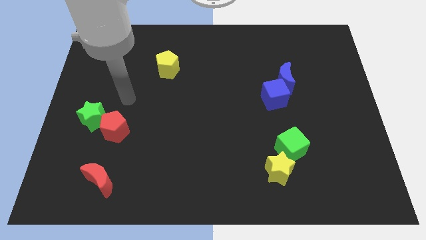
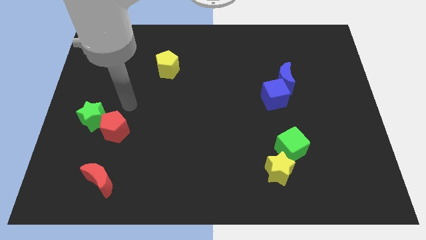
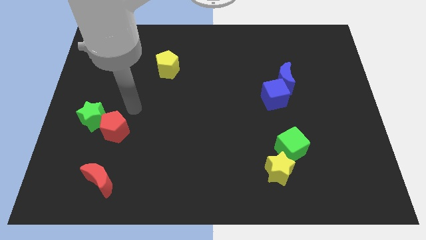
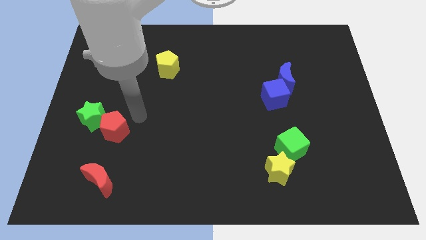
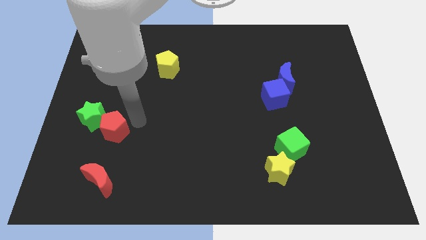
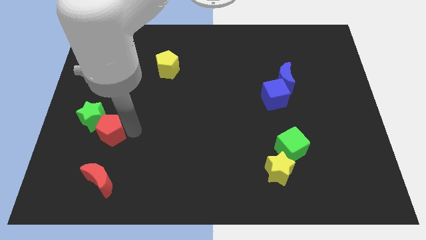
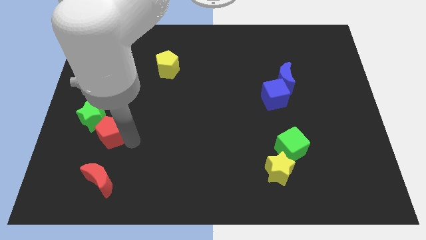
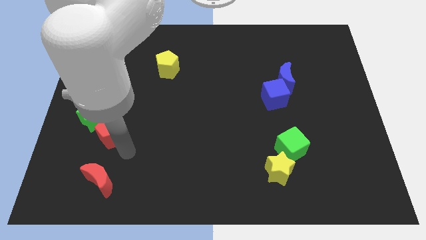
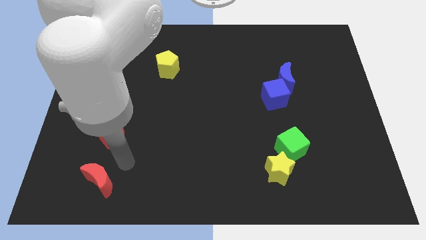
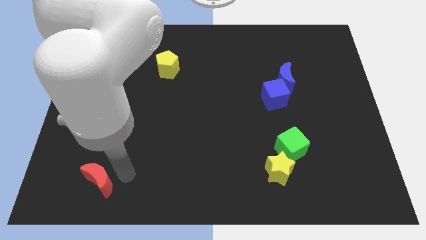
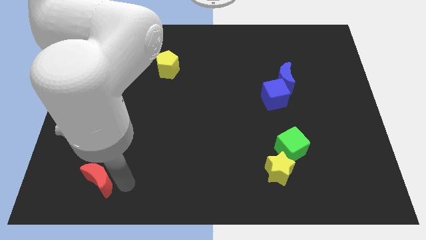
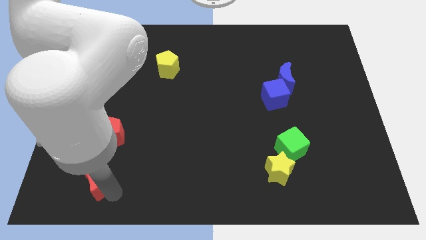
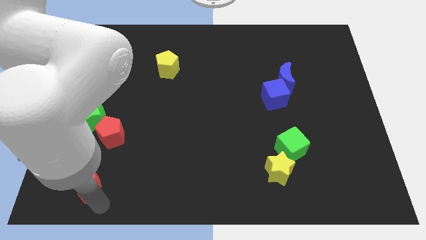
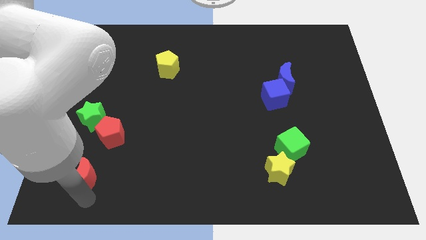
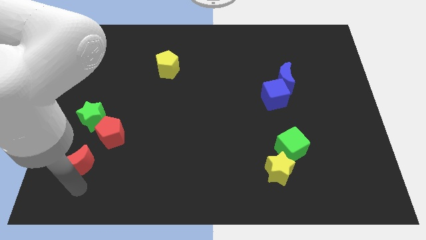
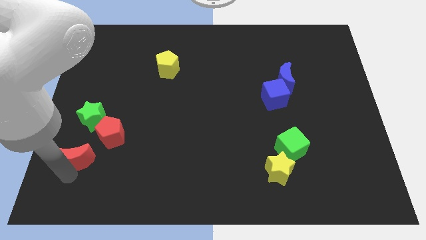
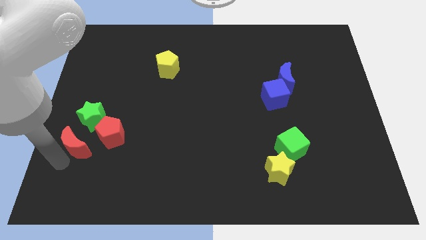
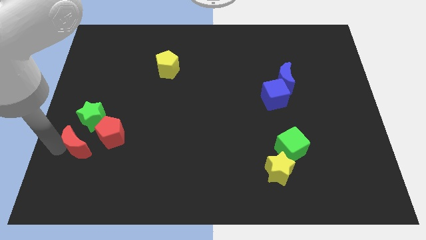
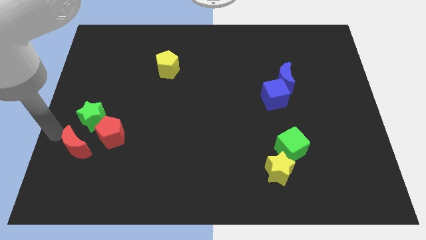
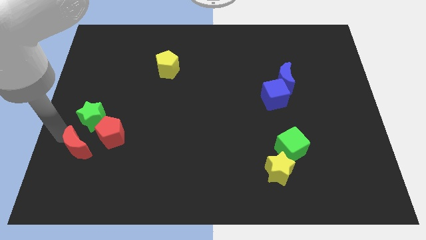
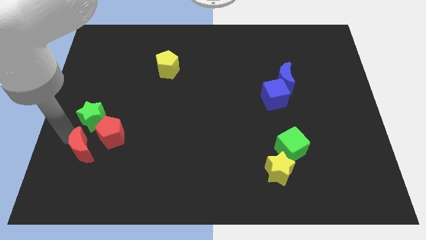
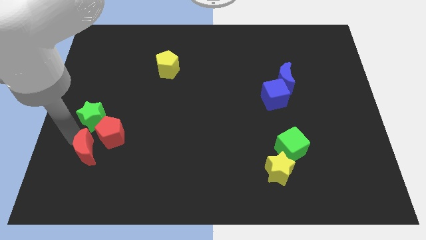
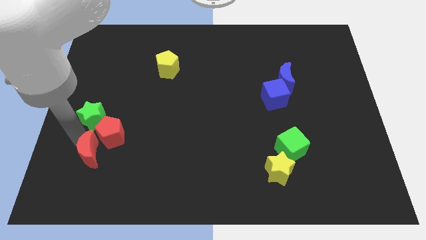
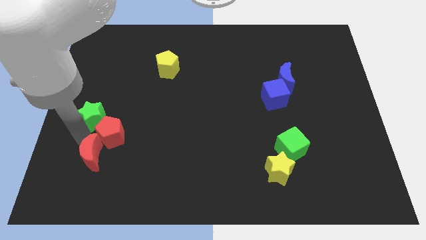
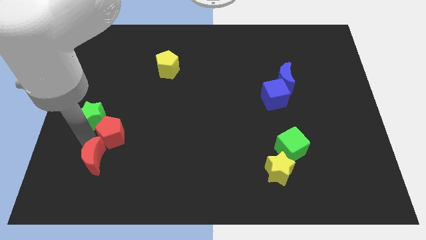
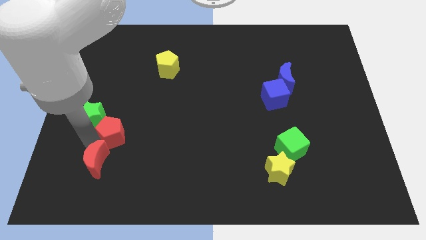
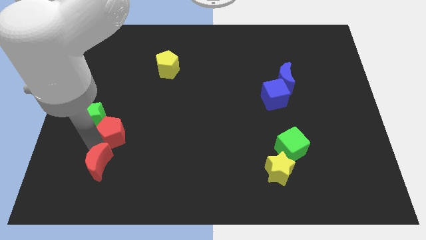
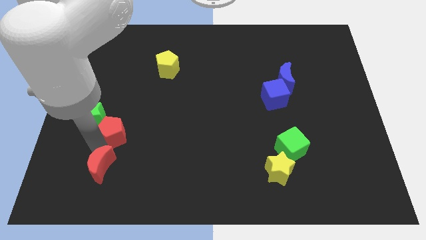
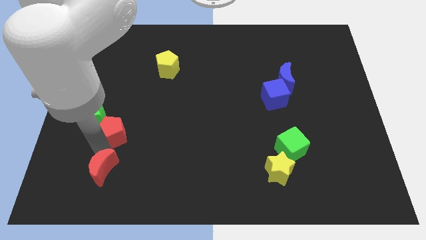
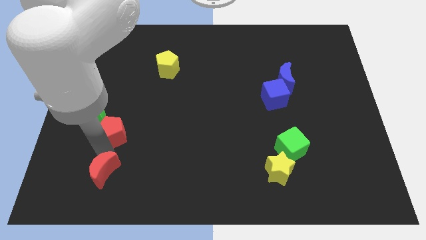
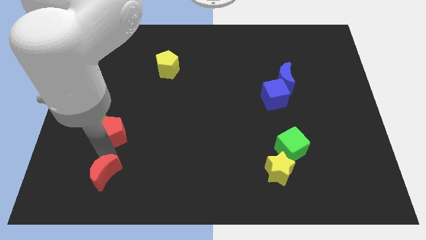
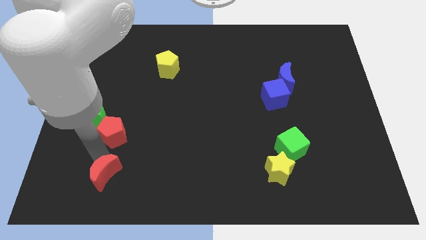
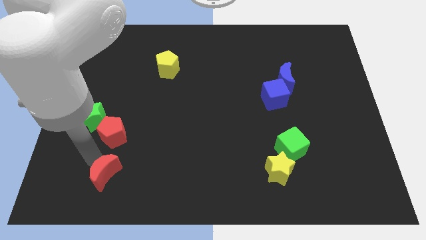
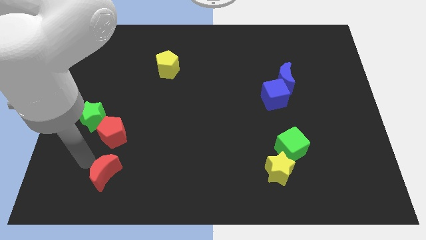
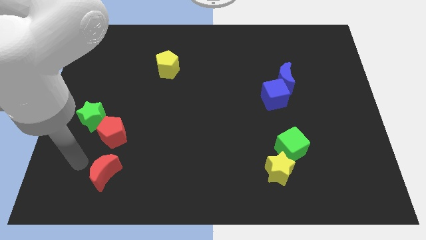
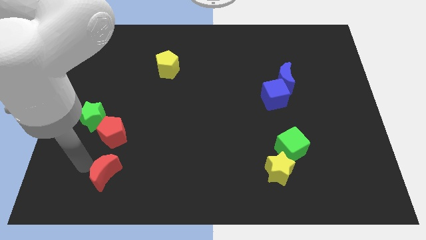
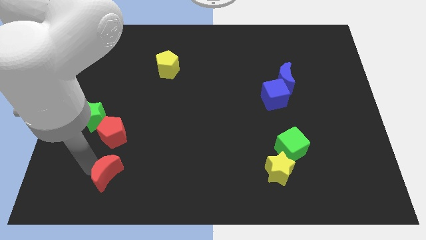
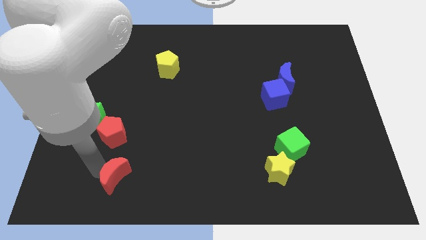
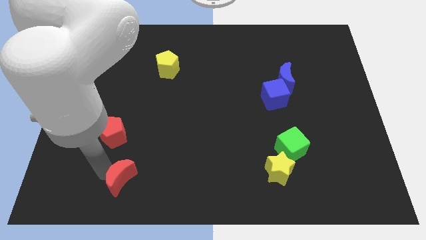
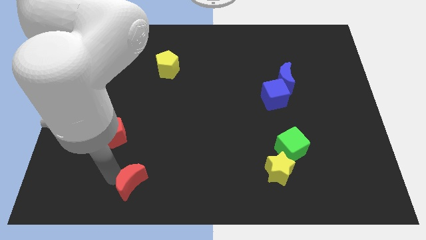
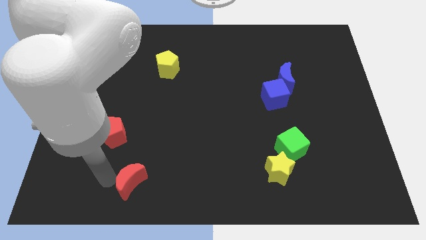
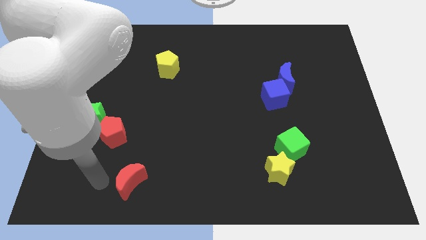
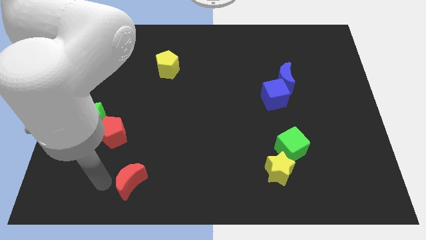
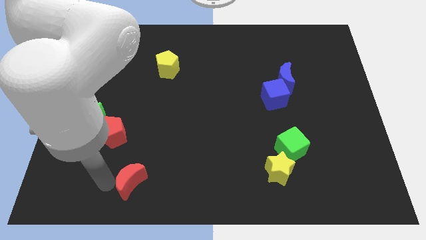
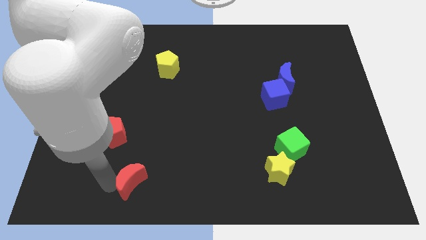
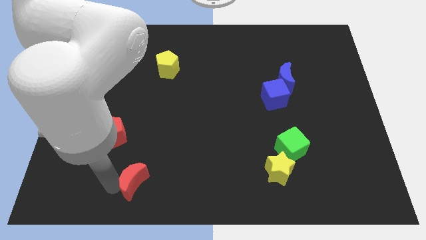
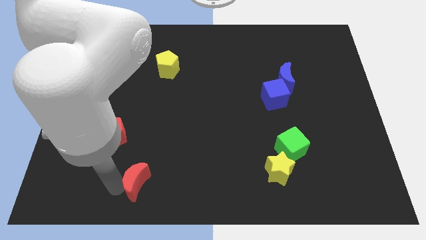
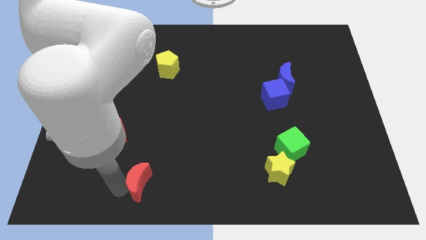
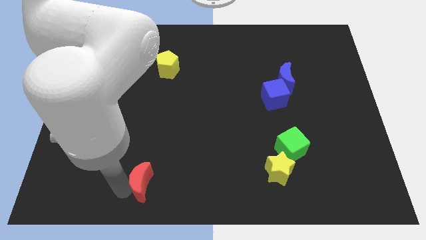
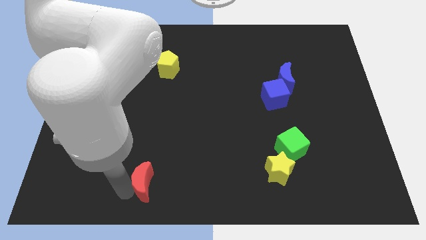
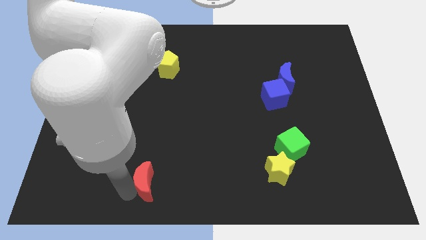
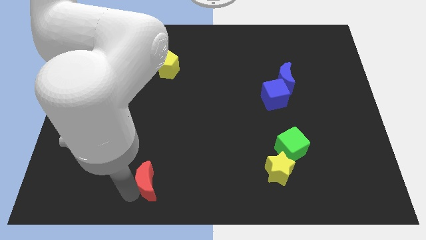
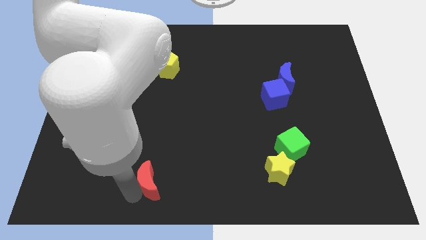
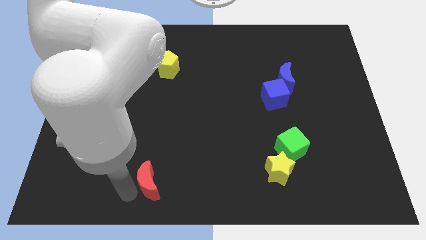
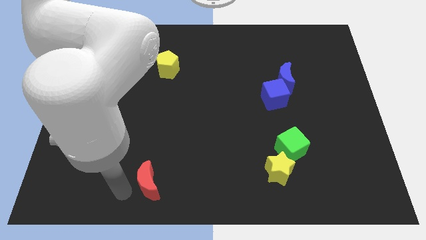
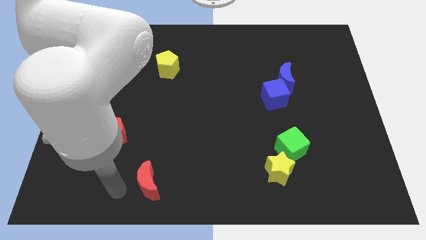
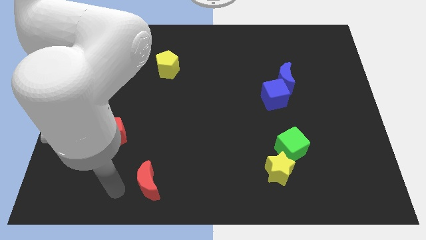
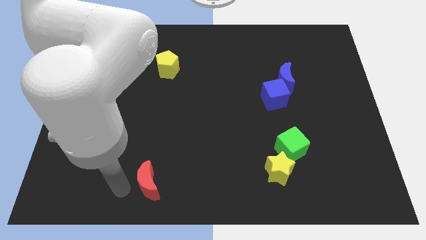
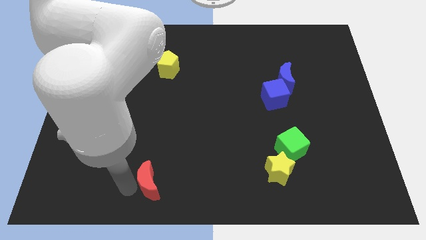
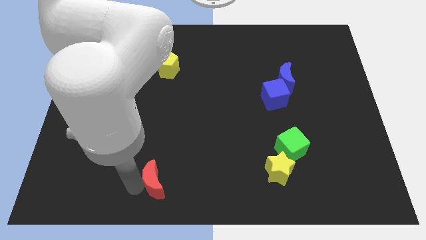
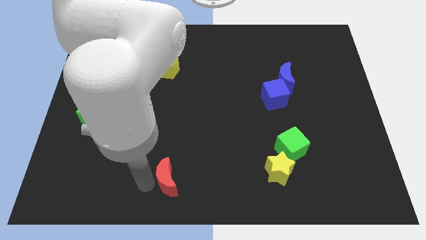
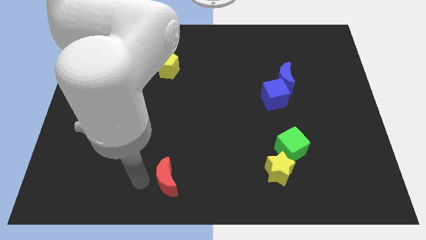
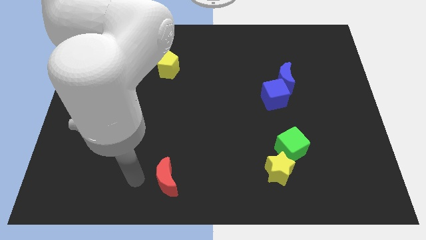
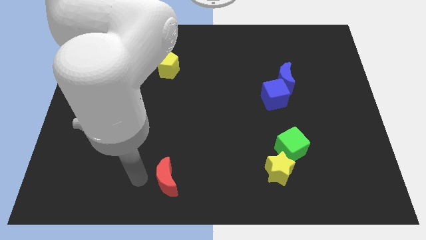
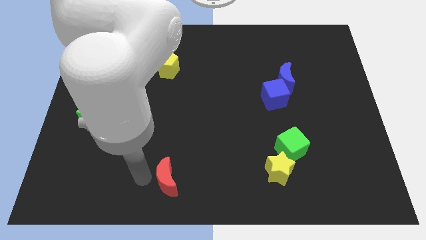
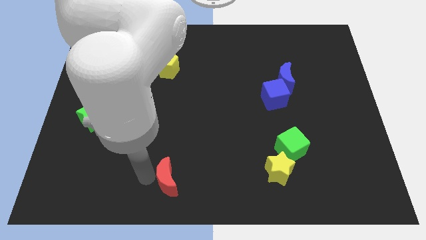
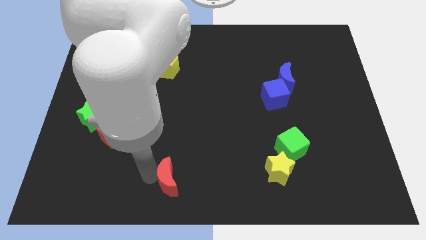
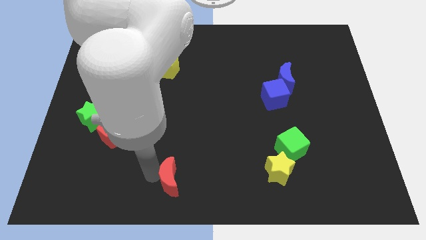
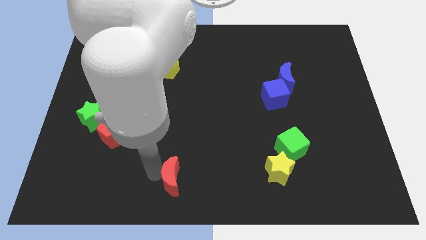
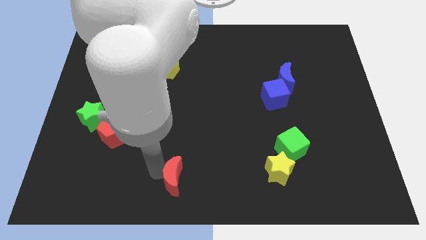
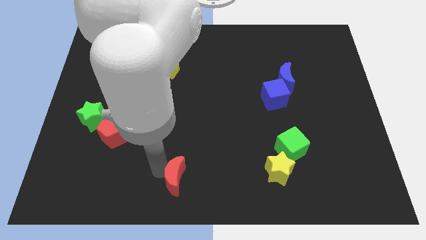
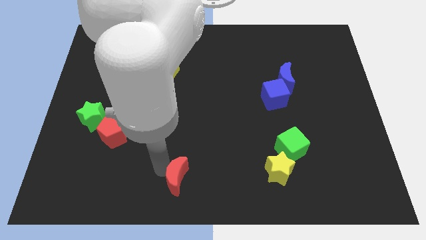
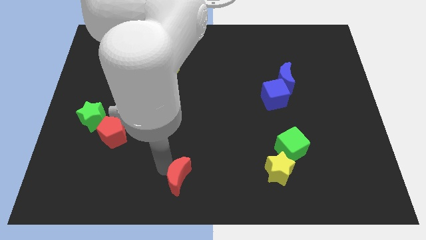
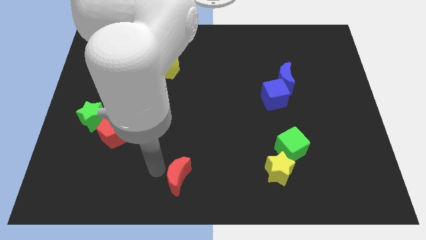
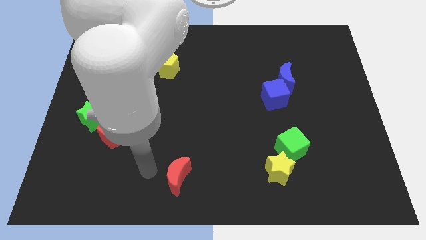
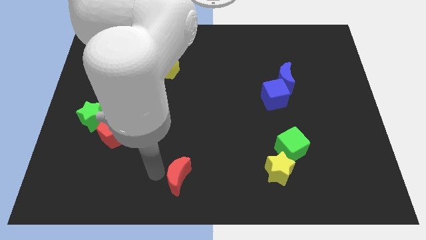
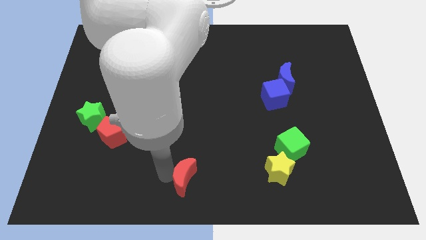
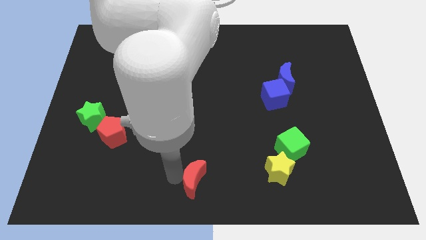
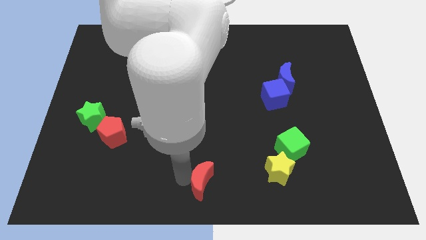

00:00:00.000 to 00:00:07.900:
slide the red moon to the right
